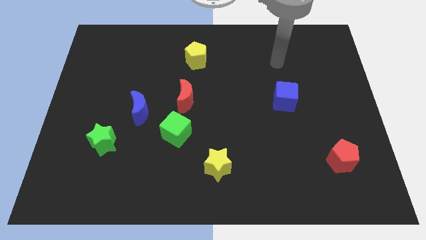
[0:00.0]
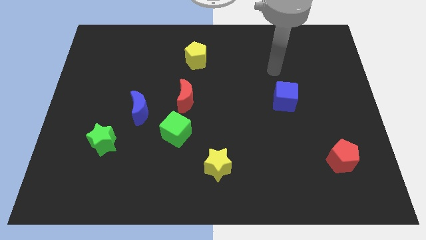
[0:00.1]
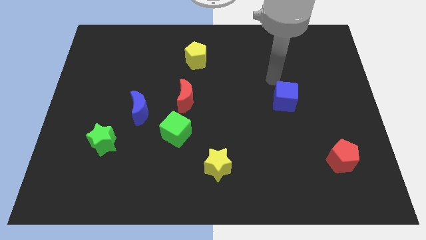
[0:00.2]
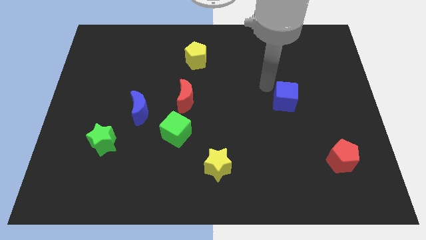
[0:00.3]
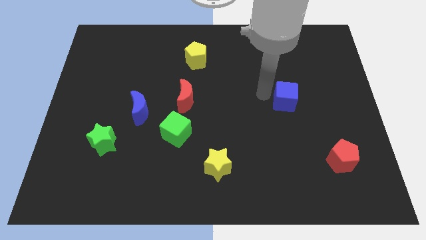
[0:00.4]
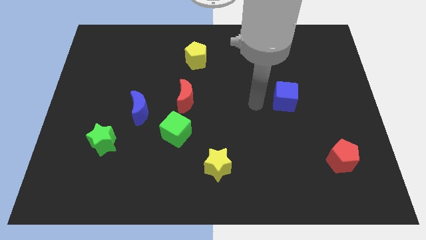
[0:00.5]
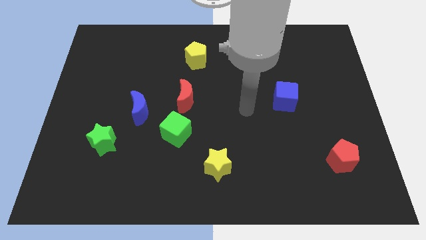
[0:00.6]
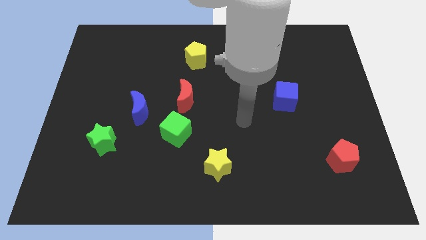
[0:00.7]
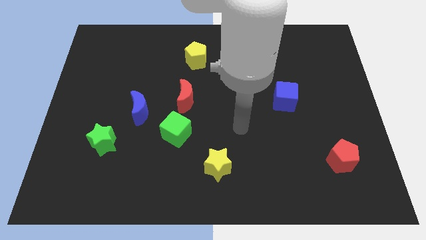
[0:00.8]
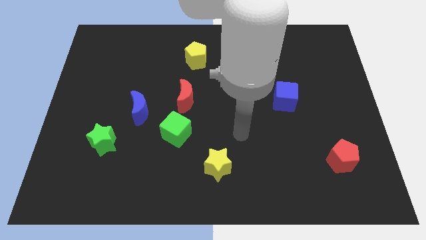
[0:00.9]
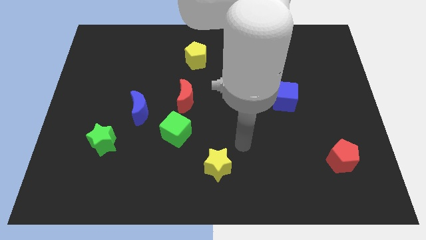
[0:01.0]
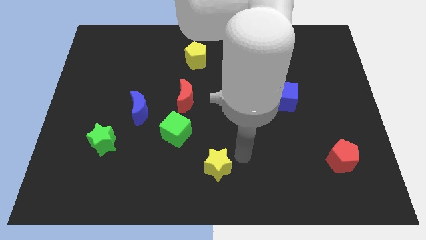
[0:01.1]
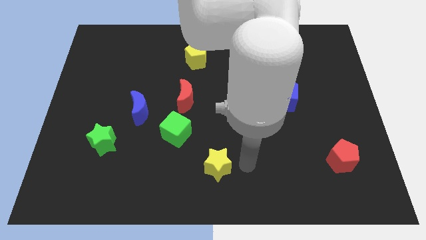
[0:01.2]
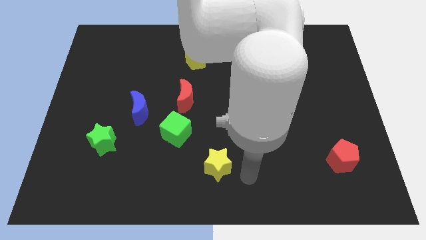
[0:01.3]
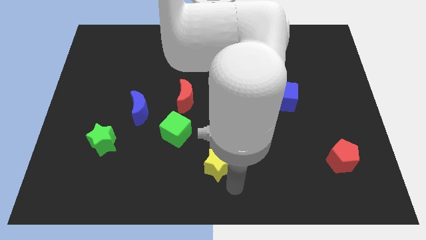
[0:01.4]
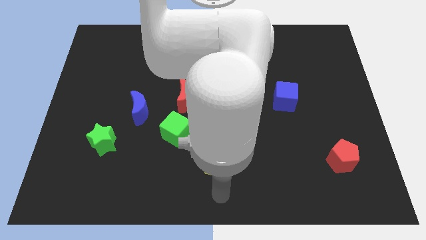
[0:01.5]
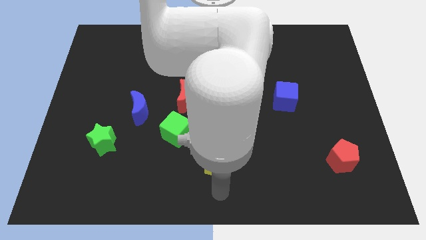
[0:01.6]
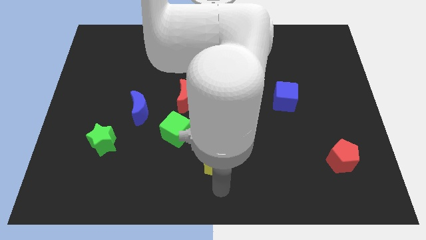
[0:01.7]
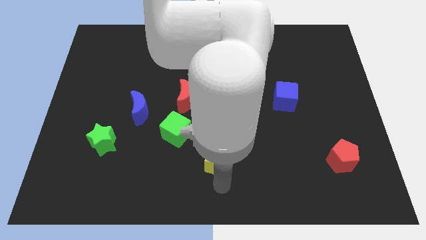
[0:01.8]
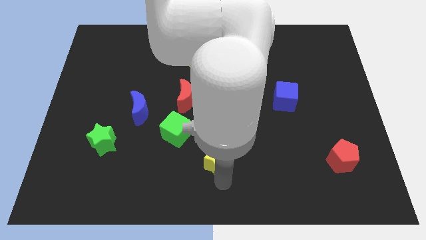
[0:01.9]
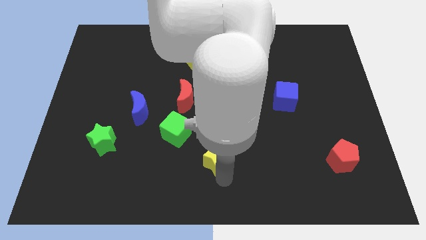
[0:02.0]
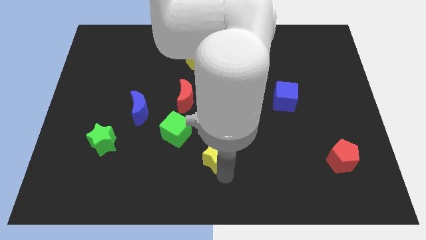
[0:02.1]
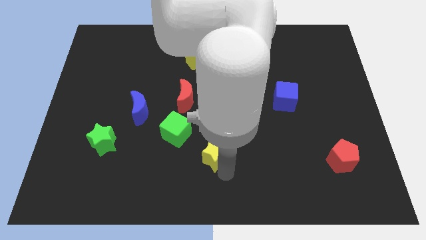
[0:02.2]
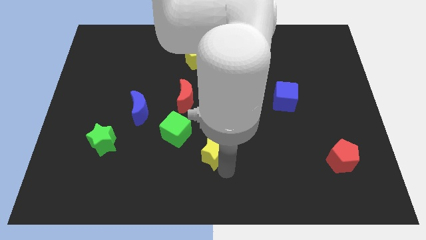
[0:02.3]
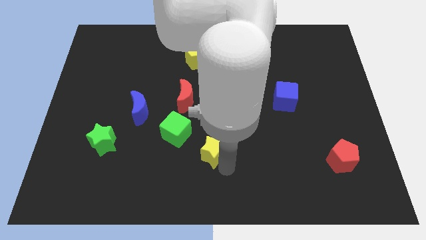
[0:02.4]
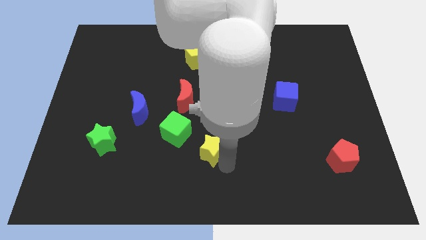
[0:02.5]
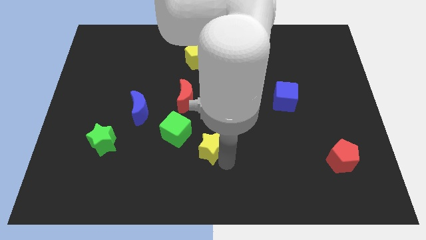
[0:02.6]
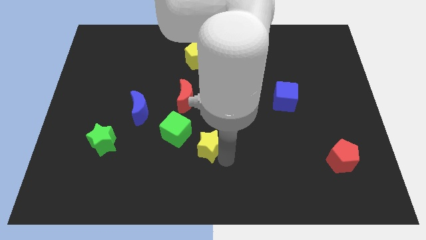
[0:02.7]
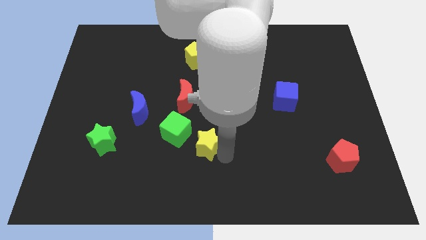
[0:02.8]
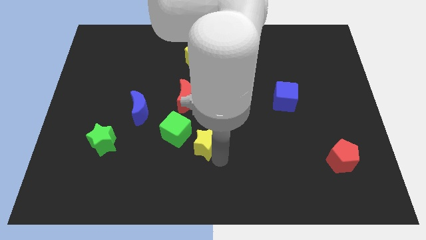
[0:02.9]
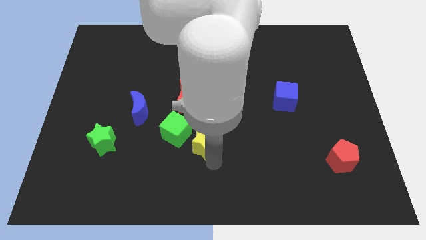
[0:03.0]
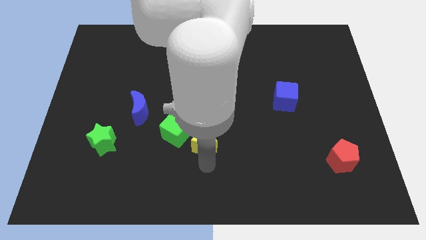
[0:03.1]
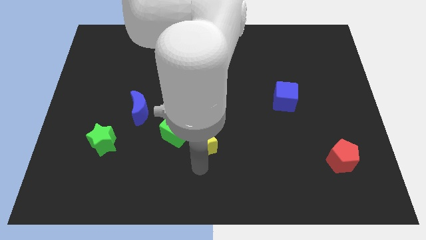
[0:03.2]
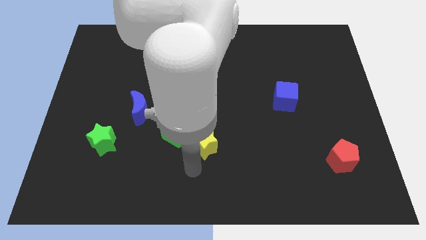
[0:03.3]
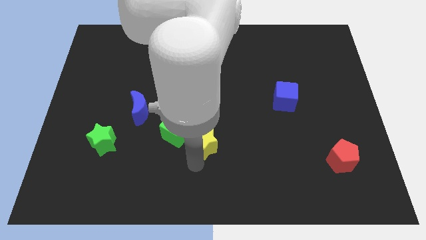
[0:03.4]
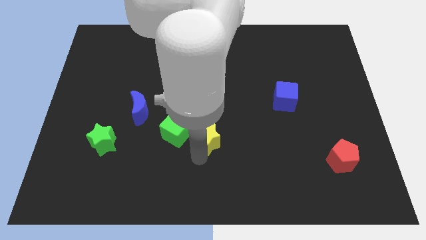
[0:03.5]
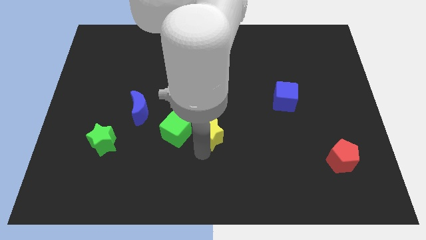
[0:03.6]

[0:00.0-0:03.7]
push the yellow star up somewhat

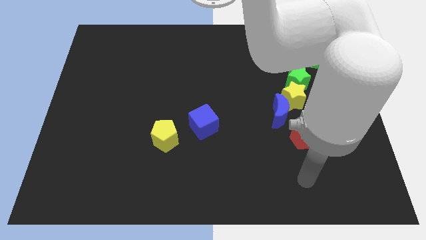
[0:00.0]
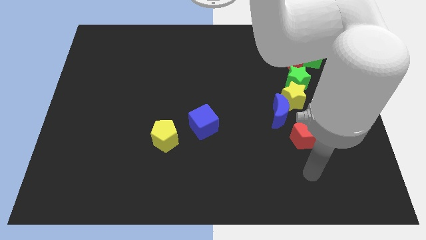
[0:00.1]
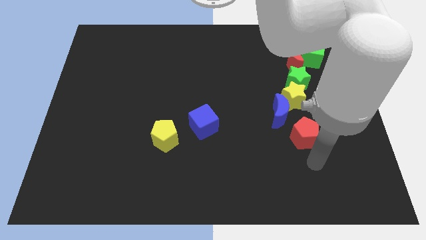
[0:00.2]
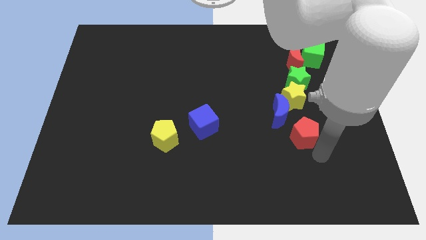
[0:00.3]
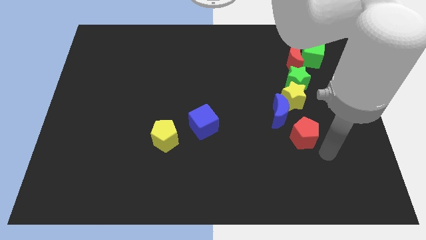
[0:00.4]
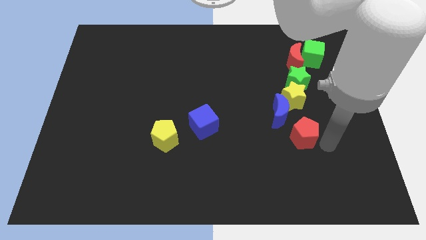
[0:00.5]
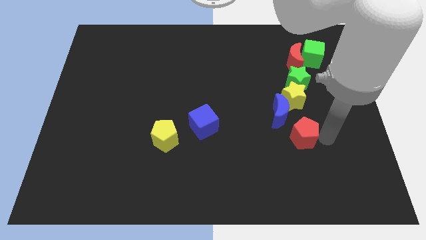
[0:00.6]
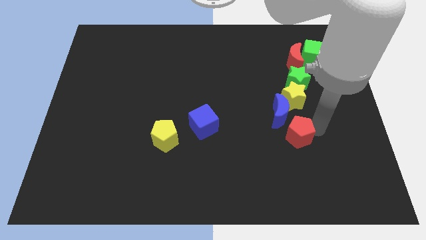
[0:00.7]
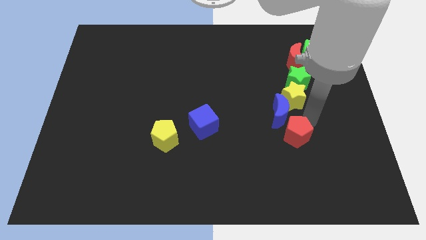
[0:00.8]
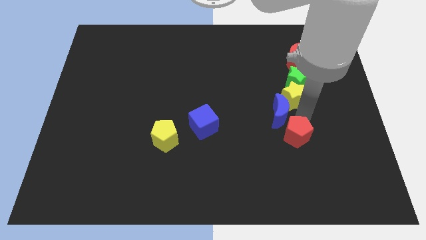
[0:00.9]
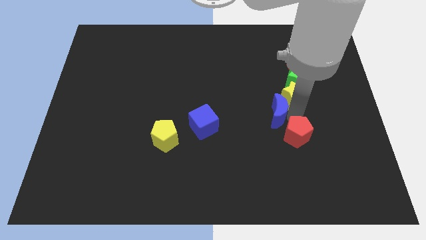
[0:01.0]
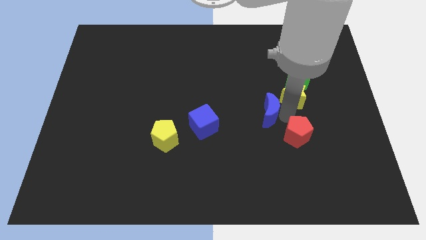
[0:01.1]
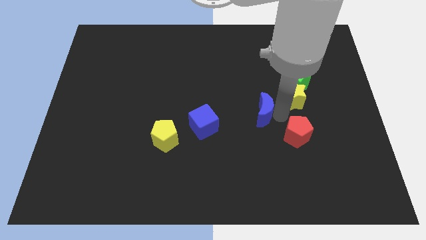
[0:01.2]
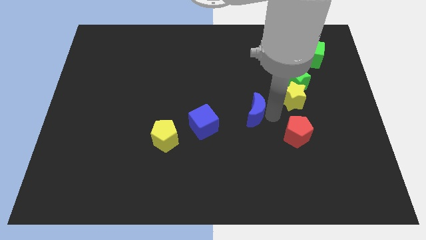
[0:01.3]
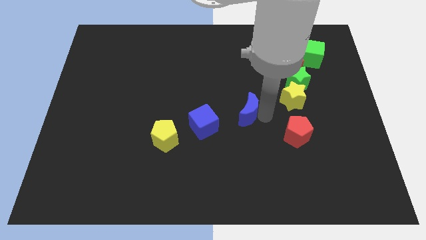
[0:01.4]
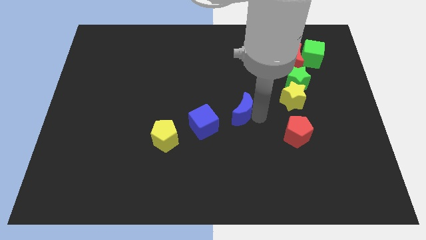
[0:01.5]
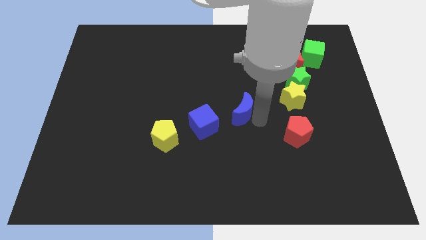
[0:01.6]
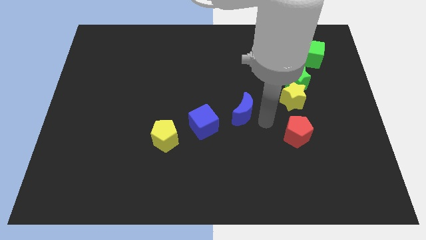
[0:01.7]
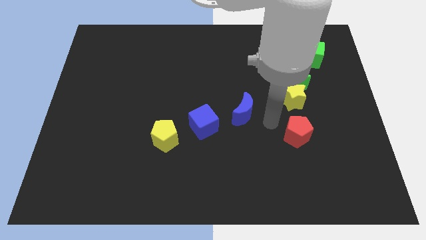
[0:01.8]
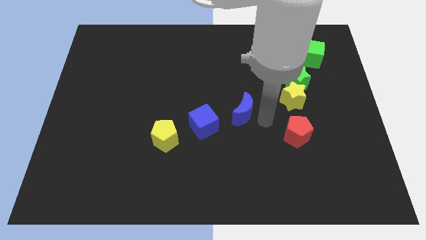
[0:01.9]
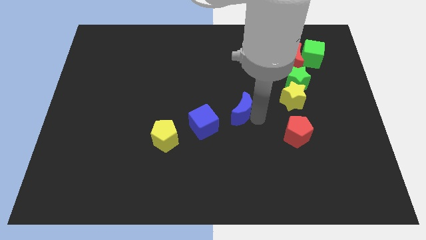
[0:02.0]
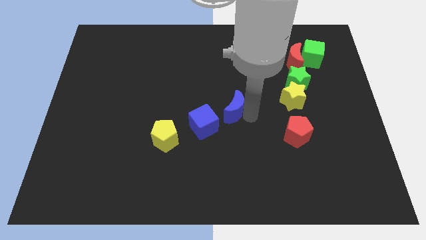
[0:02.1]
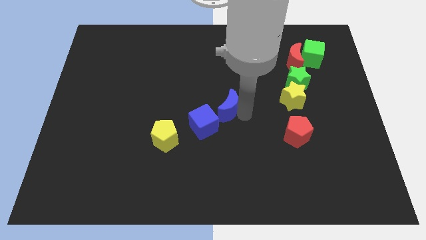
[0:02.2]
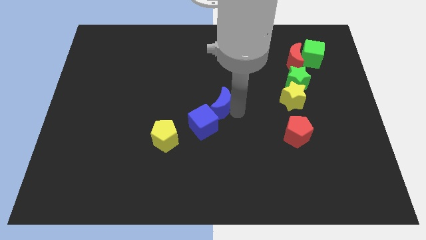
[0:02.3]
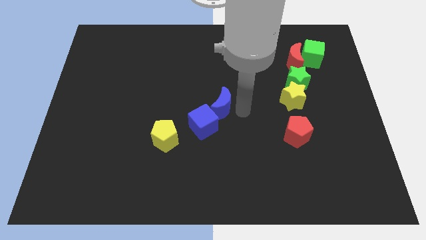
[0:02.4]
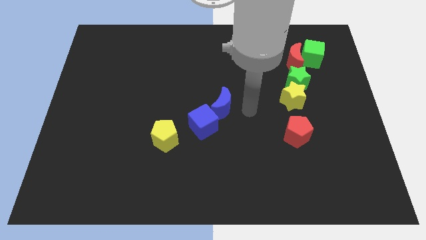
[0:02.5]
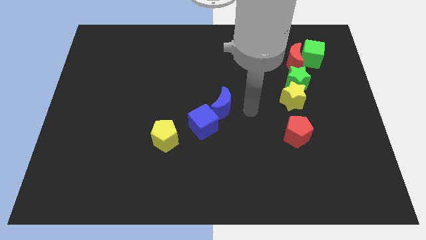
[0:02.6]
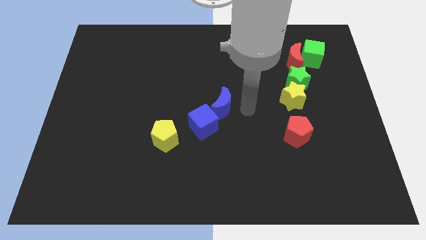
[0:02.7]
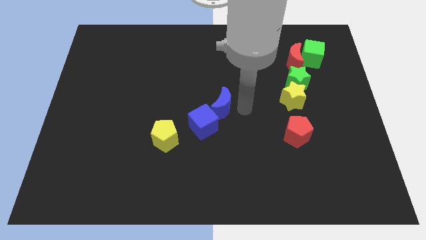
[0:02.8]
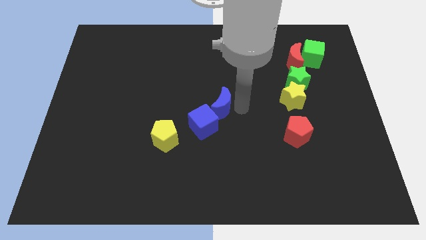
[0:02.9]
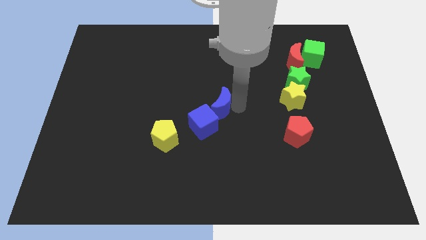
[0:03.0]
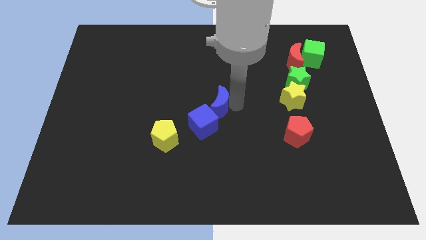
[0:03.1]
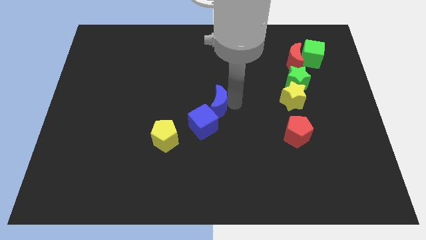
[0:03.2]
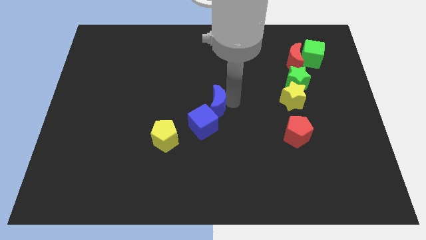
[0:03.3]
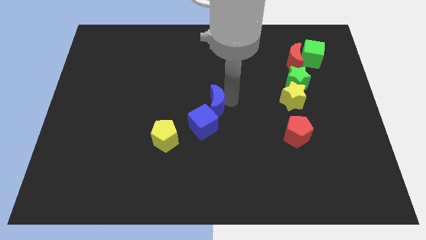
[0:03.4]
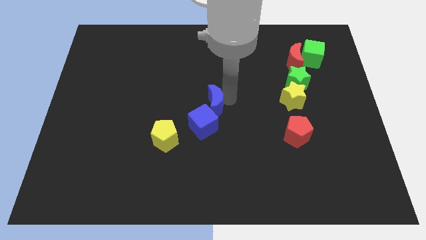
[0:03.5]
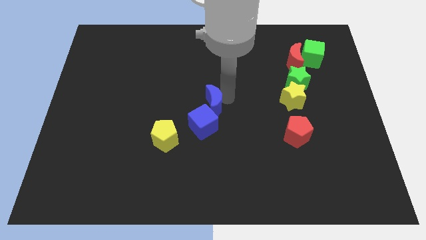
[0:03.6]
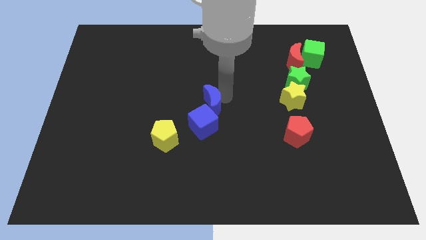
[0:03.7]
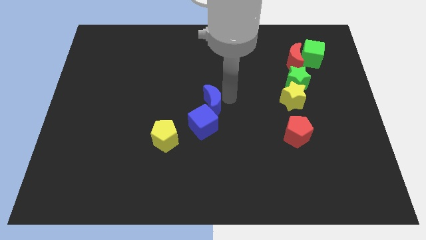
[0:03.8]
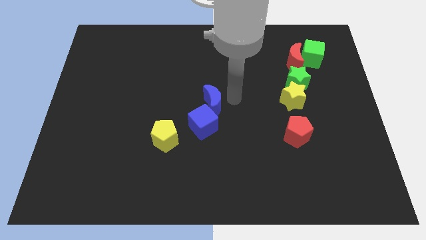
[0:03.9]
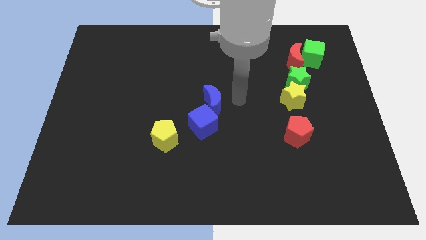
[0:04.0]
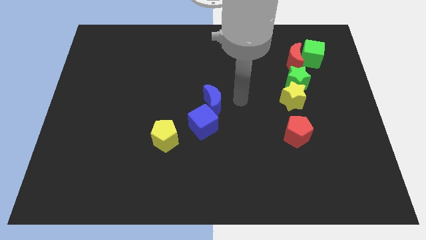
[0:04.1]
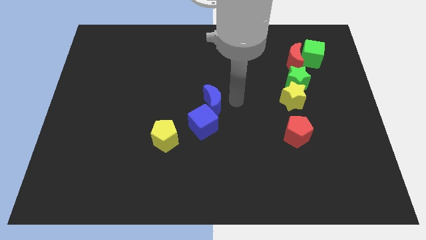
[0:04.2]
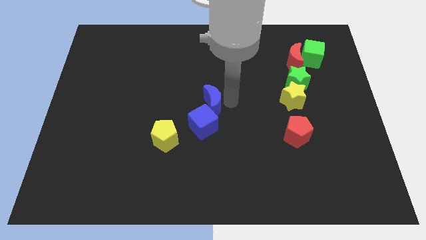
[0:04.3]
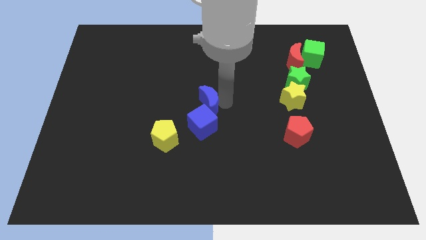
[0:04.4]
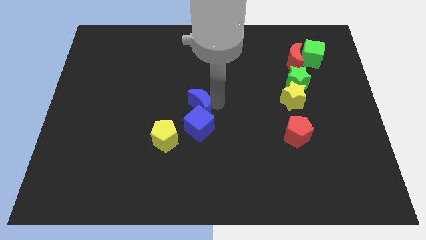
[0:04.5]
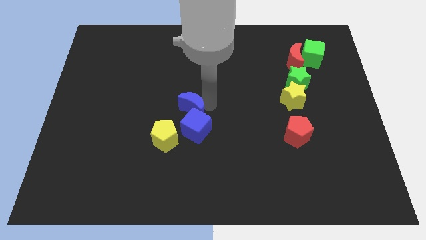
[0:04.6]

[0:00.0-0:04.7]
slide the blue moon to the left
